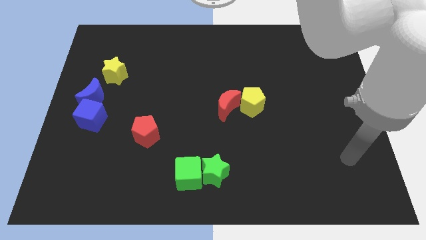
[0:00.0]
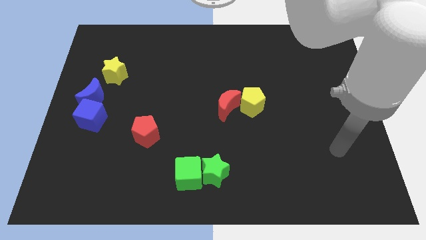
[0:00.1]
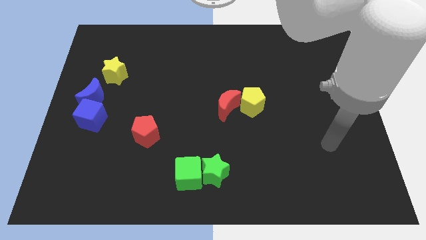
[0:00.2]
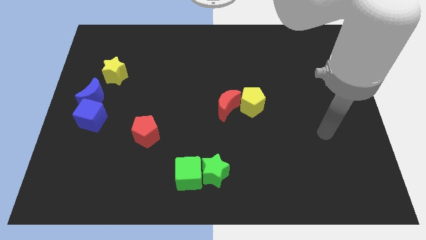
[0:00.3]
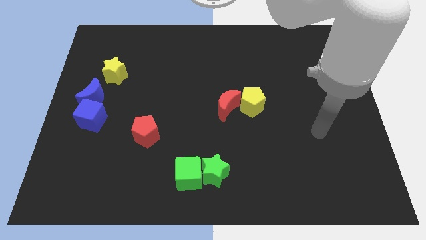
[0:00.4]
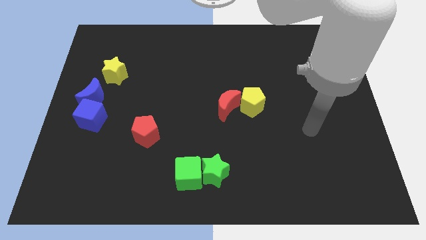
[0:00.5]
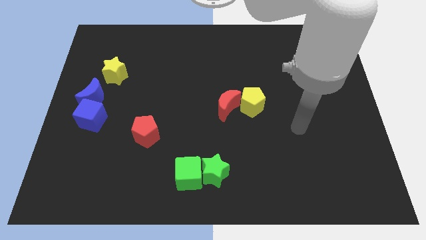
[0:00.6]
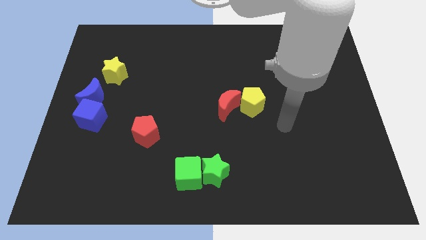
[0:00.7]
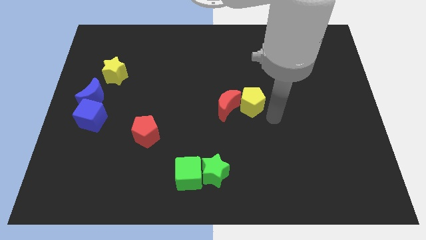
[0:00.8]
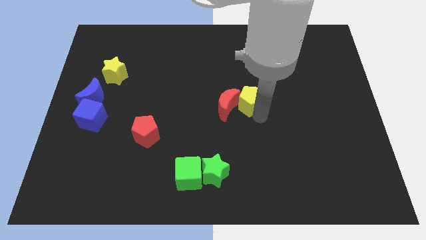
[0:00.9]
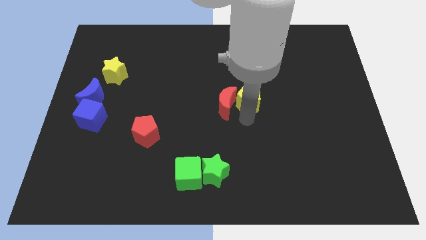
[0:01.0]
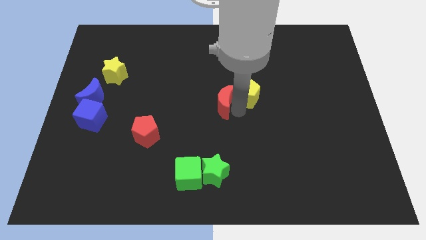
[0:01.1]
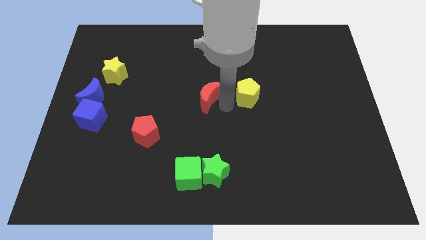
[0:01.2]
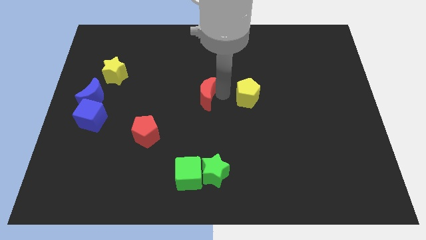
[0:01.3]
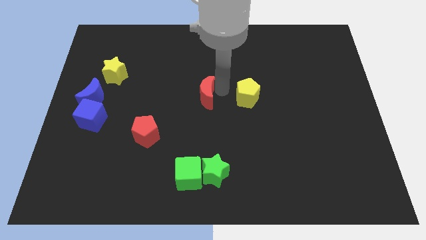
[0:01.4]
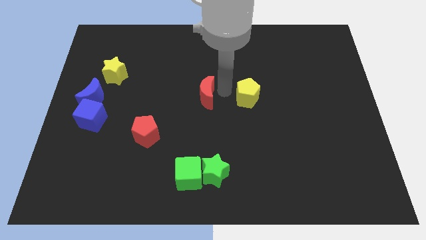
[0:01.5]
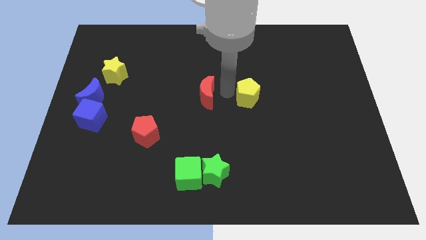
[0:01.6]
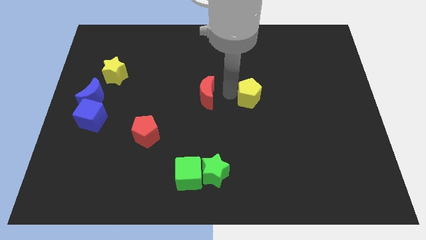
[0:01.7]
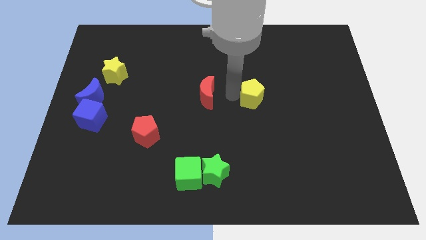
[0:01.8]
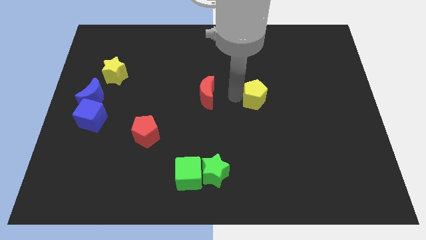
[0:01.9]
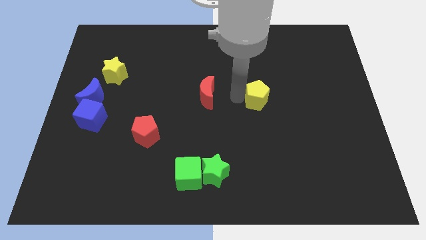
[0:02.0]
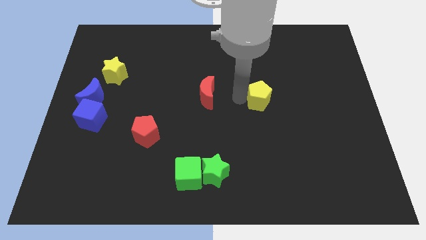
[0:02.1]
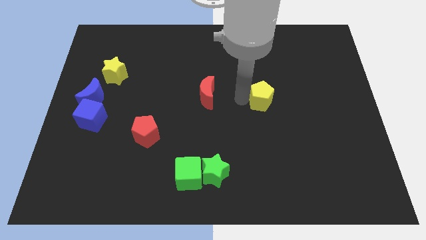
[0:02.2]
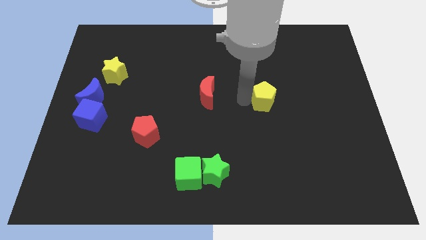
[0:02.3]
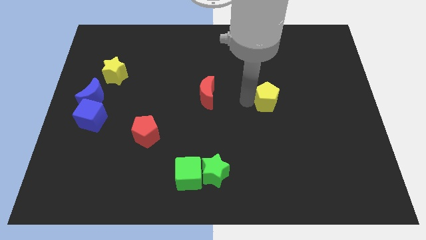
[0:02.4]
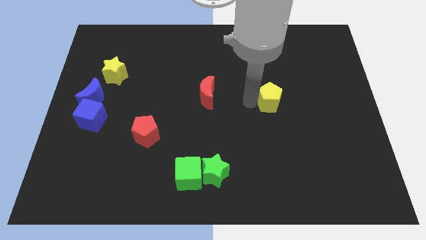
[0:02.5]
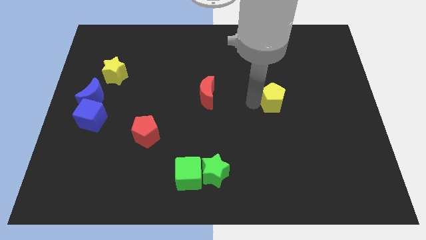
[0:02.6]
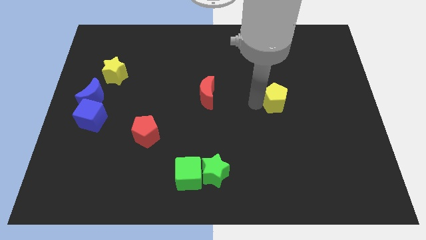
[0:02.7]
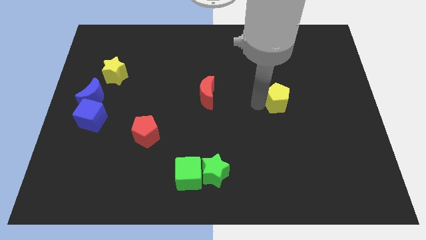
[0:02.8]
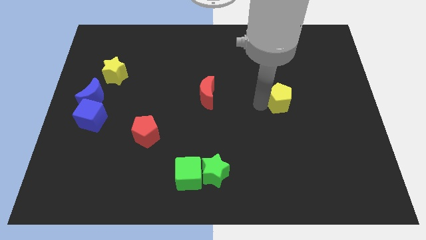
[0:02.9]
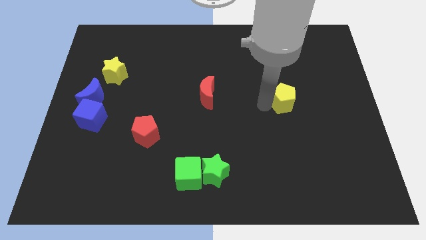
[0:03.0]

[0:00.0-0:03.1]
slide the yellow pentagon a little to the right

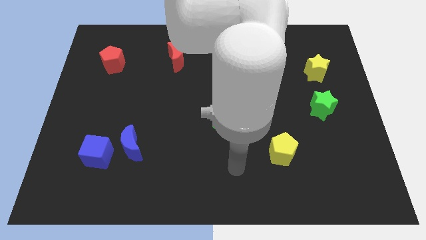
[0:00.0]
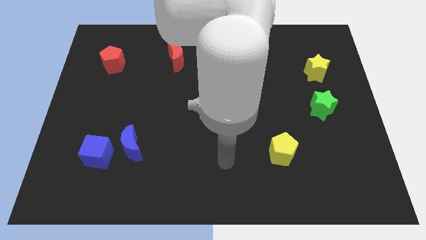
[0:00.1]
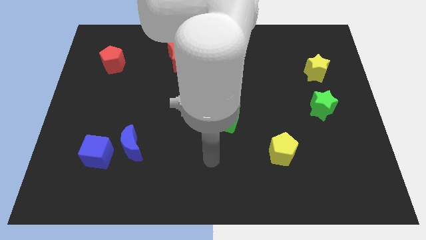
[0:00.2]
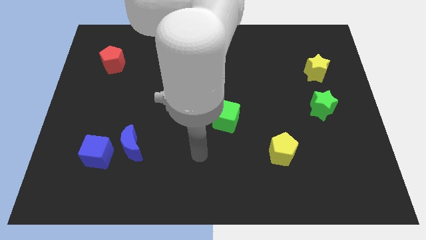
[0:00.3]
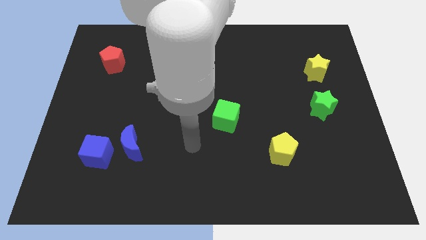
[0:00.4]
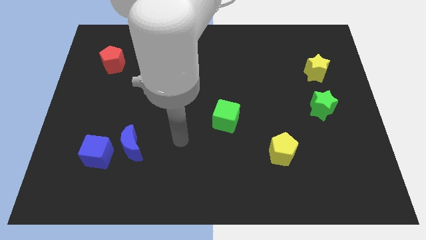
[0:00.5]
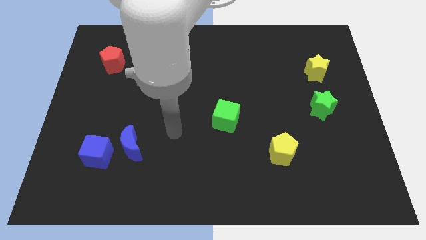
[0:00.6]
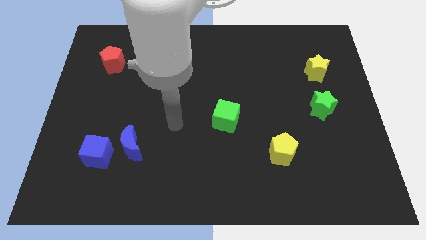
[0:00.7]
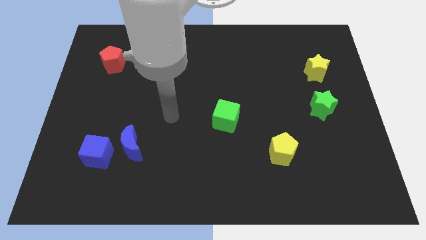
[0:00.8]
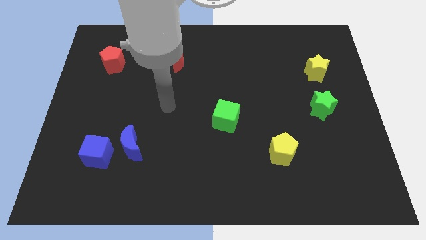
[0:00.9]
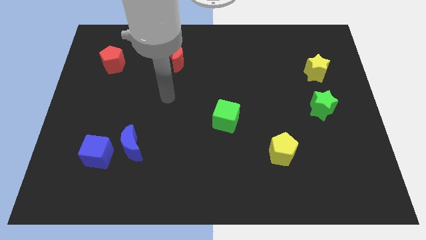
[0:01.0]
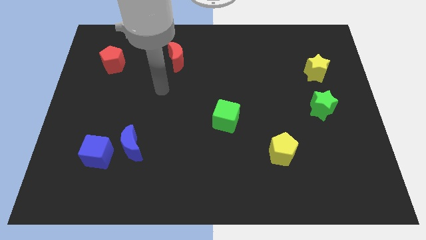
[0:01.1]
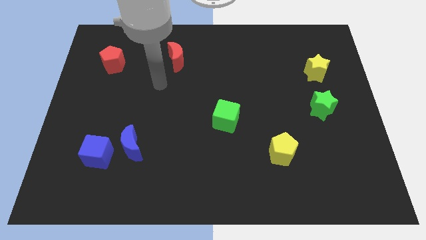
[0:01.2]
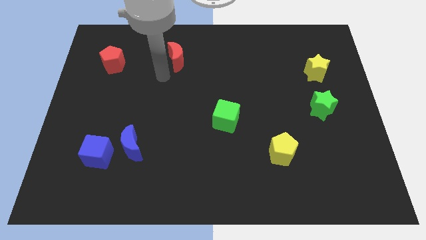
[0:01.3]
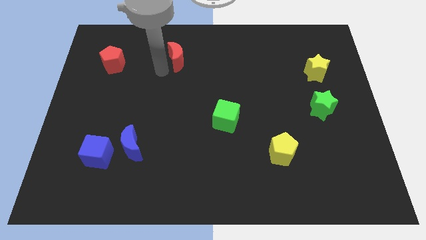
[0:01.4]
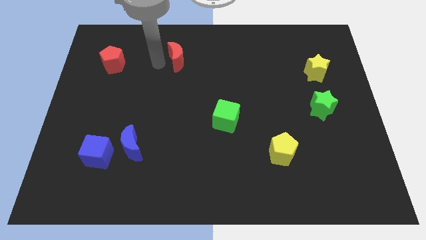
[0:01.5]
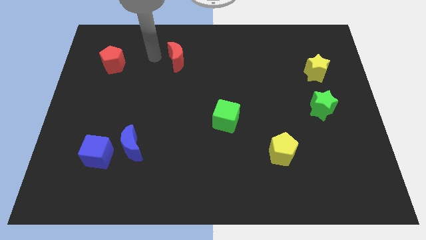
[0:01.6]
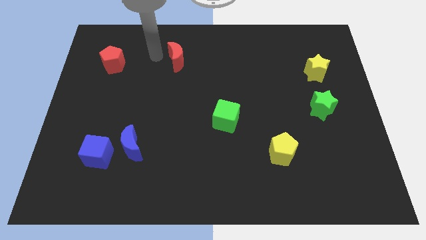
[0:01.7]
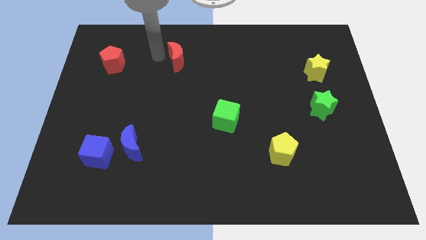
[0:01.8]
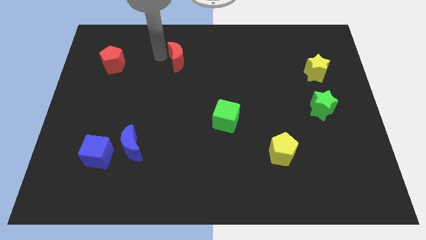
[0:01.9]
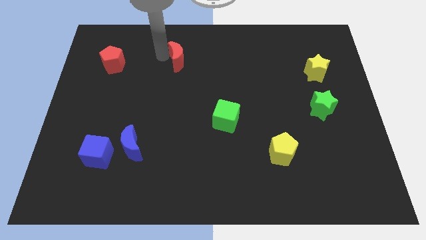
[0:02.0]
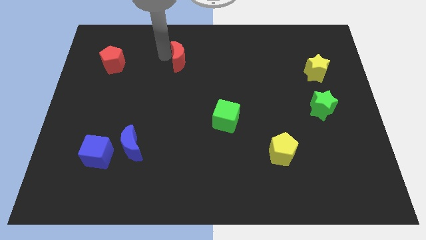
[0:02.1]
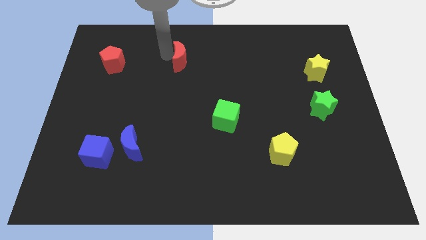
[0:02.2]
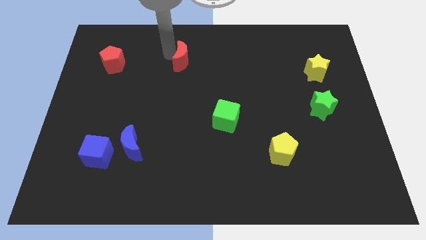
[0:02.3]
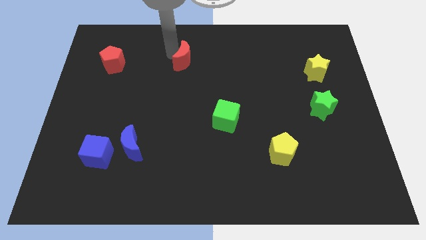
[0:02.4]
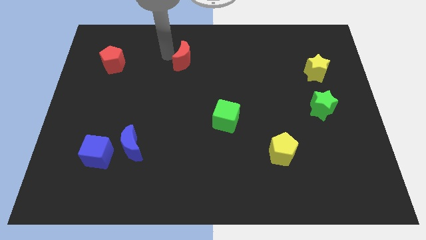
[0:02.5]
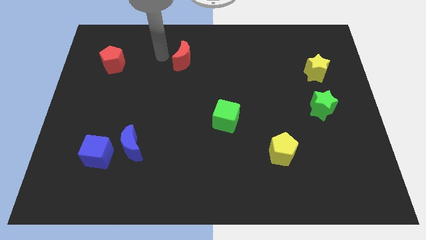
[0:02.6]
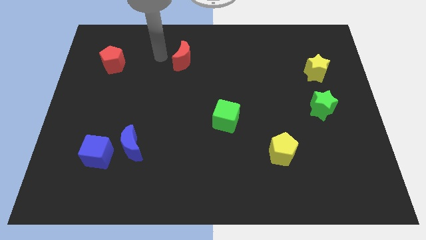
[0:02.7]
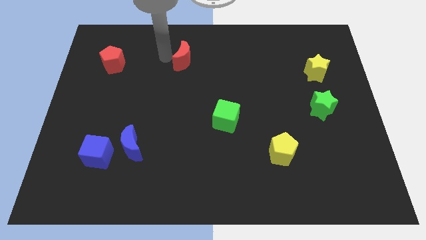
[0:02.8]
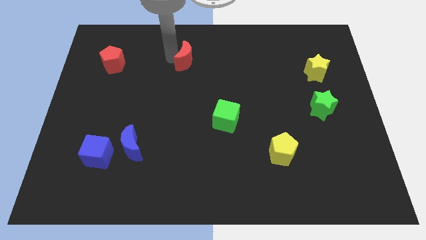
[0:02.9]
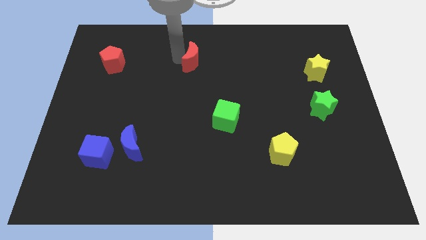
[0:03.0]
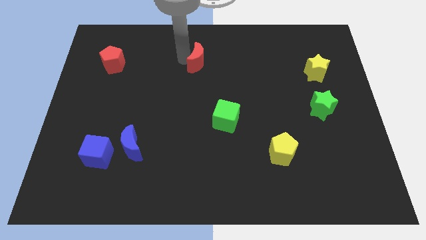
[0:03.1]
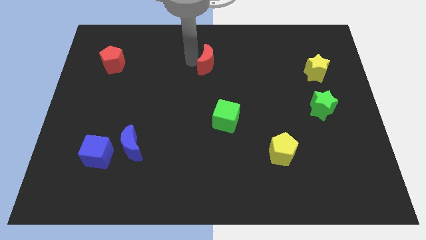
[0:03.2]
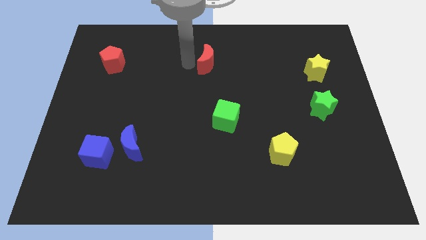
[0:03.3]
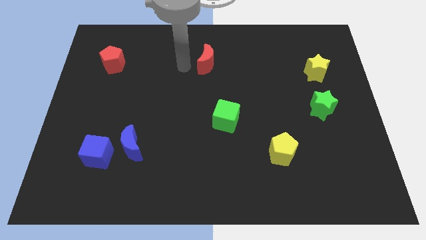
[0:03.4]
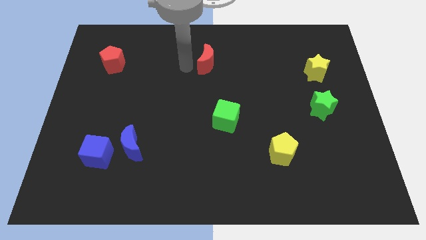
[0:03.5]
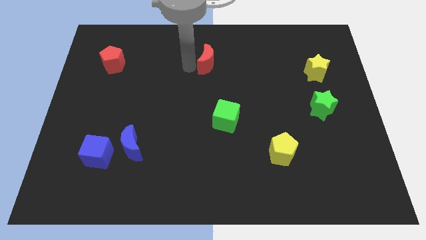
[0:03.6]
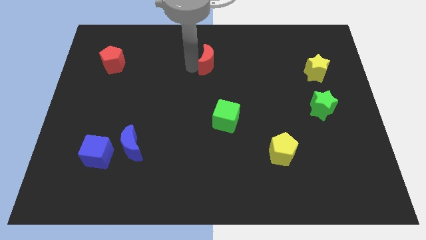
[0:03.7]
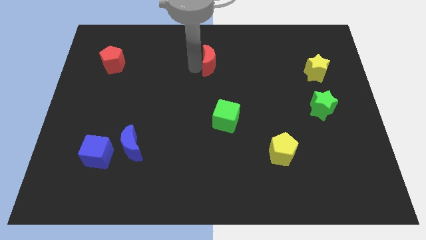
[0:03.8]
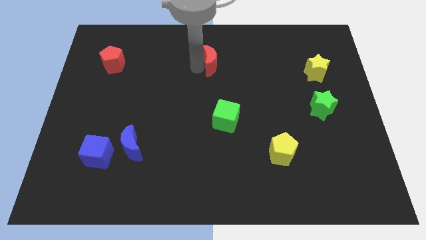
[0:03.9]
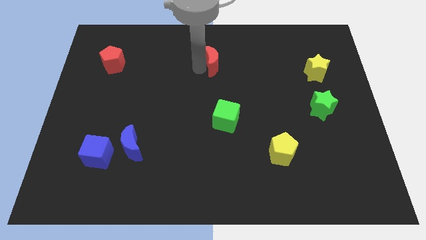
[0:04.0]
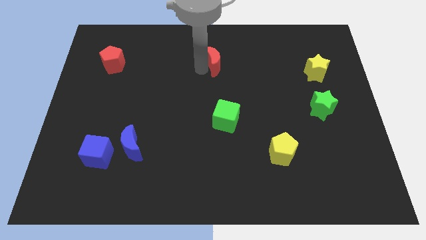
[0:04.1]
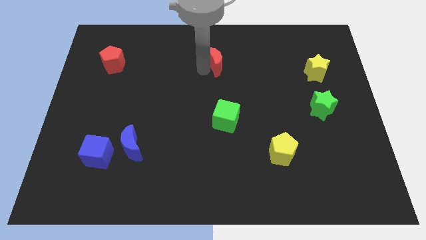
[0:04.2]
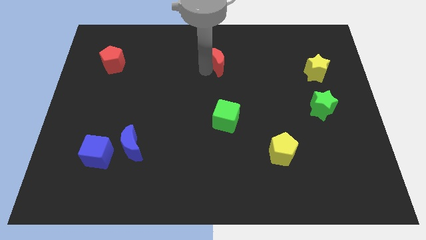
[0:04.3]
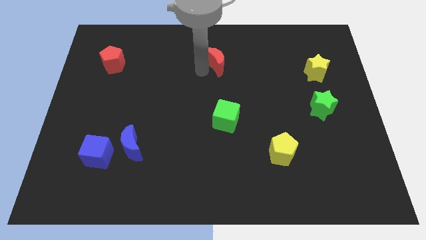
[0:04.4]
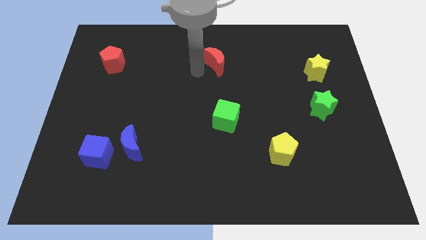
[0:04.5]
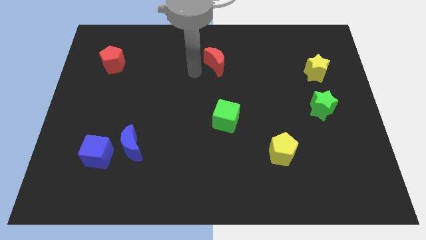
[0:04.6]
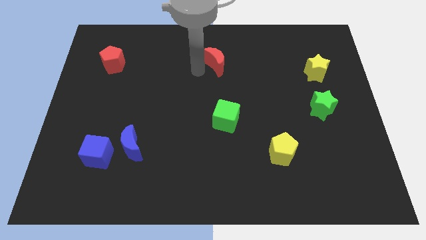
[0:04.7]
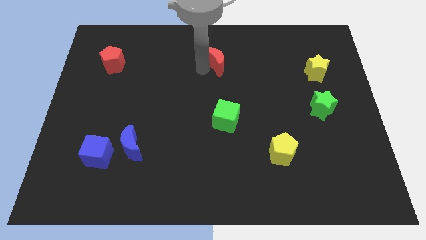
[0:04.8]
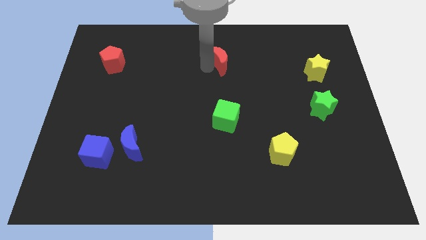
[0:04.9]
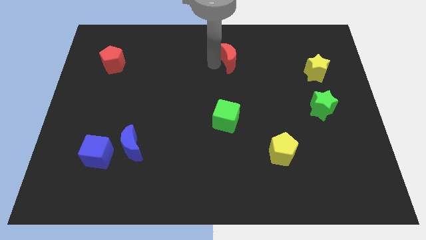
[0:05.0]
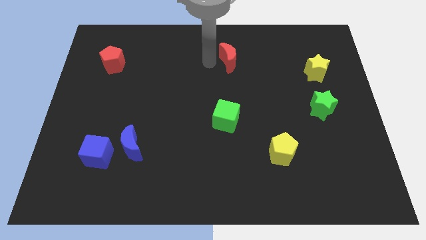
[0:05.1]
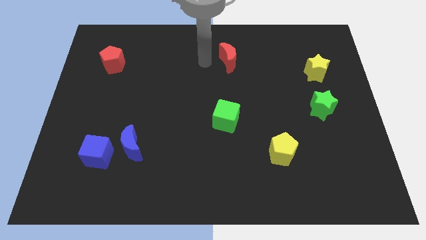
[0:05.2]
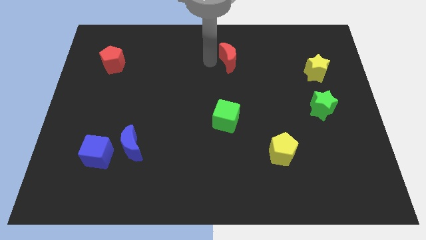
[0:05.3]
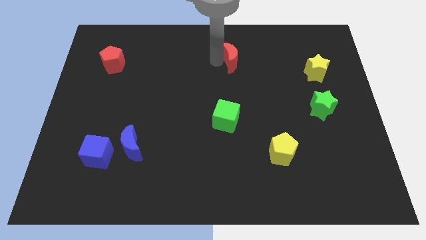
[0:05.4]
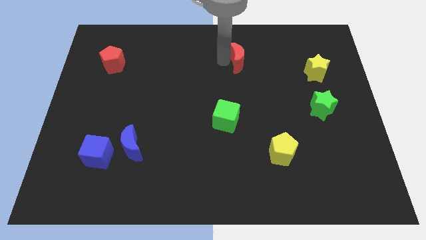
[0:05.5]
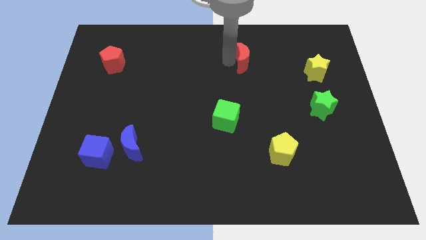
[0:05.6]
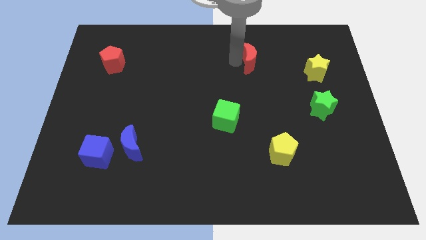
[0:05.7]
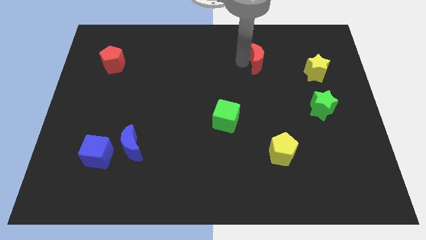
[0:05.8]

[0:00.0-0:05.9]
move the red moon right
